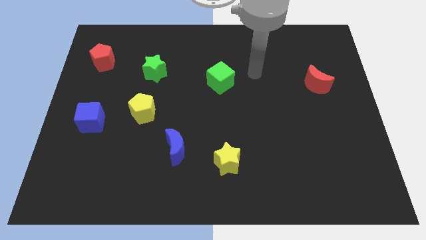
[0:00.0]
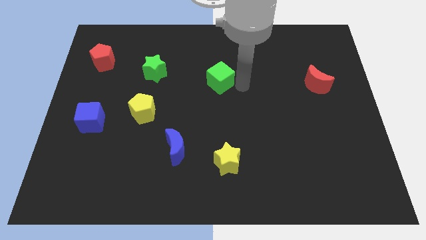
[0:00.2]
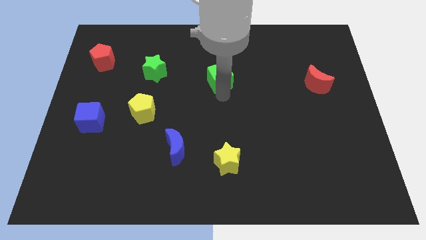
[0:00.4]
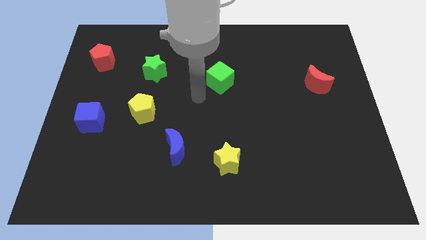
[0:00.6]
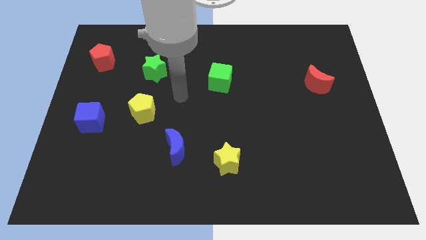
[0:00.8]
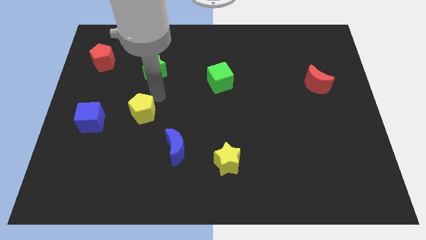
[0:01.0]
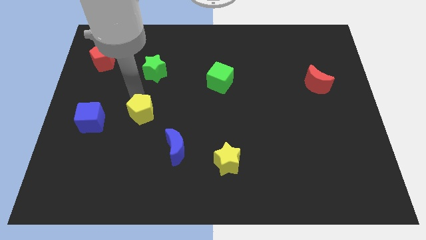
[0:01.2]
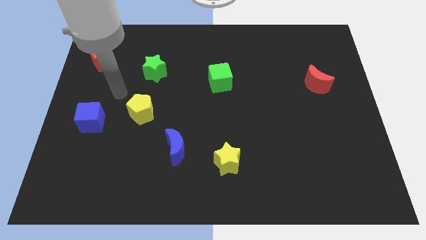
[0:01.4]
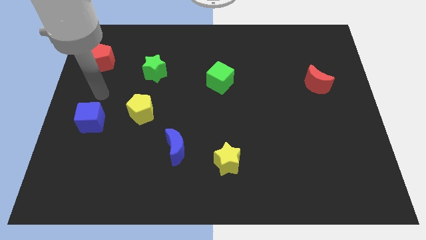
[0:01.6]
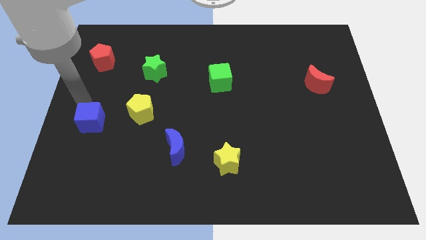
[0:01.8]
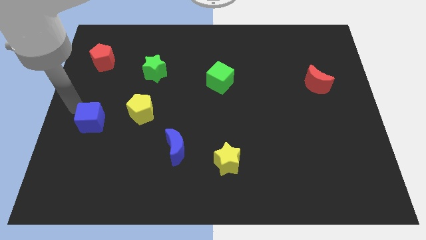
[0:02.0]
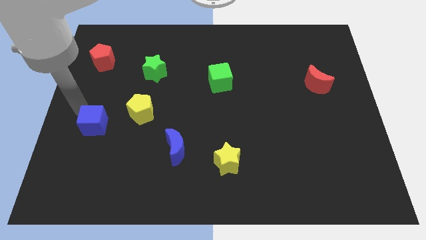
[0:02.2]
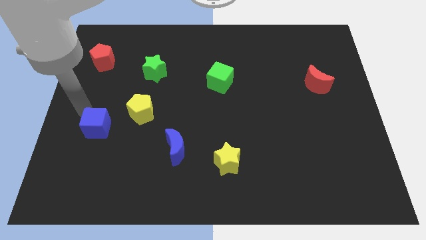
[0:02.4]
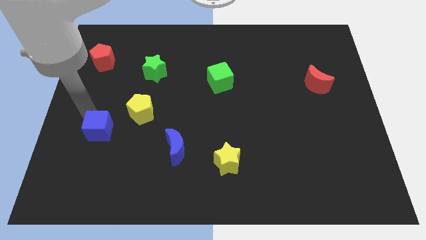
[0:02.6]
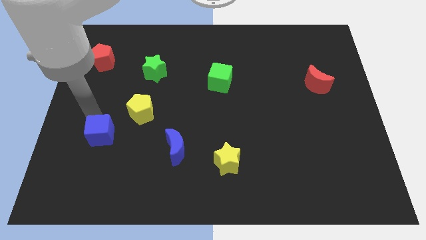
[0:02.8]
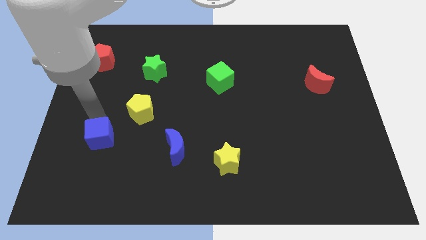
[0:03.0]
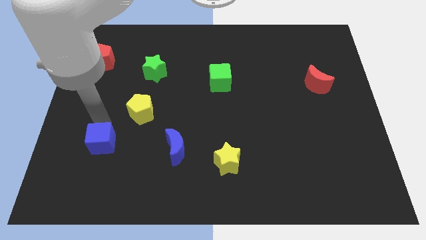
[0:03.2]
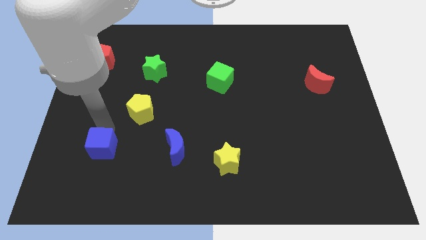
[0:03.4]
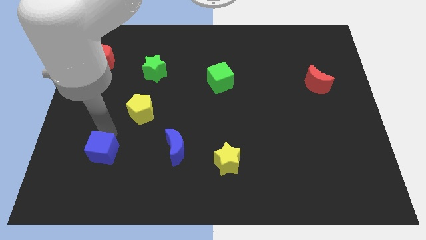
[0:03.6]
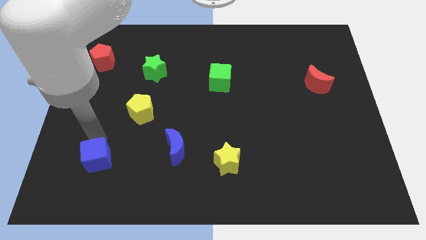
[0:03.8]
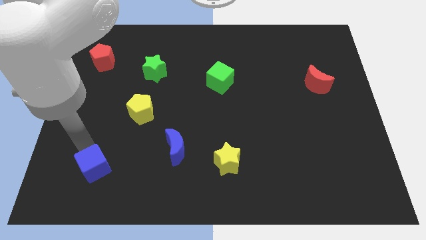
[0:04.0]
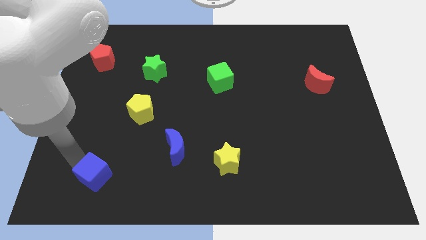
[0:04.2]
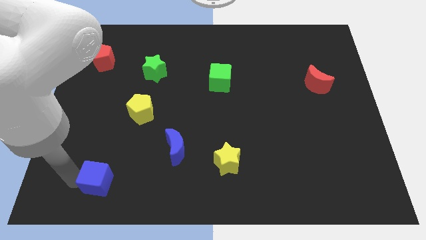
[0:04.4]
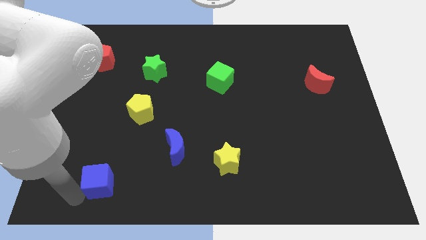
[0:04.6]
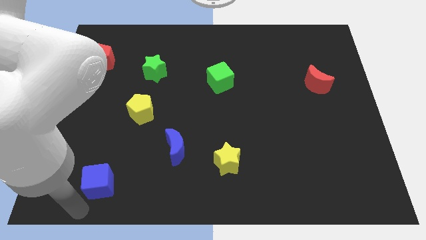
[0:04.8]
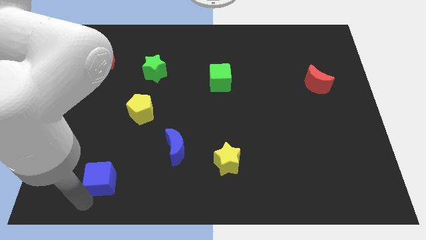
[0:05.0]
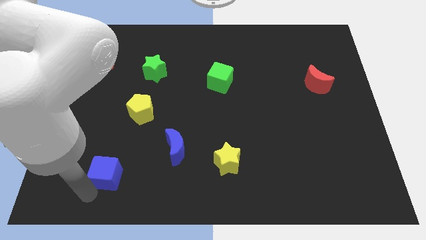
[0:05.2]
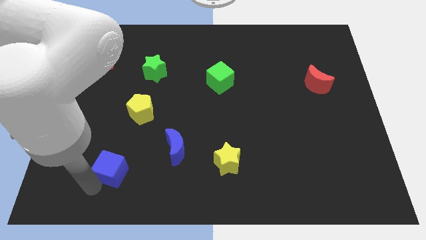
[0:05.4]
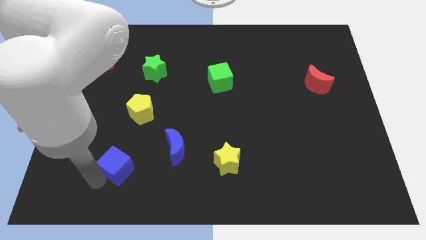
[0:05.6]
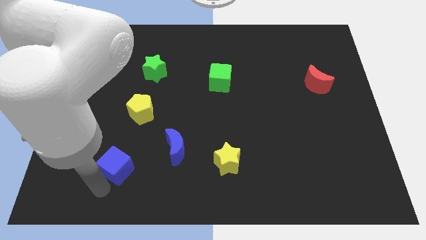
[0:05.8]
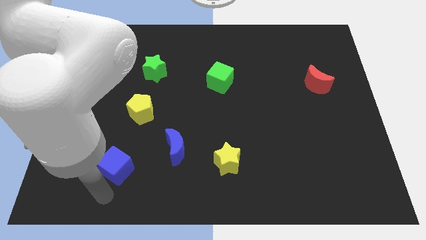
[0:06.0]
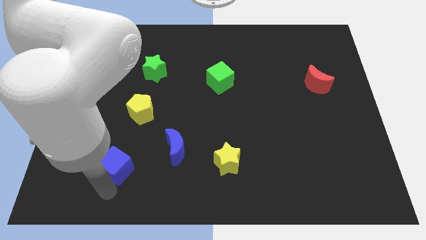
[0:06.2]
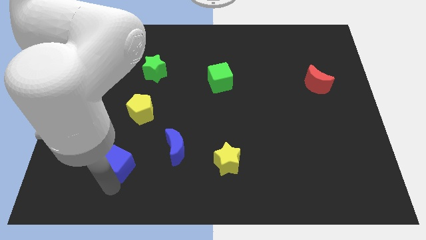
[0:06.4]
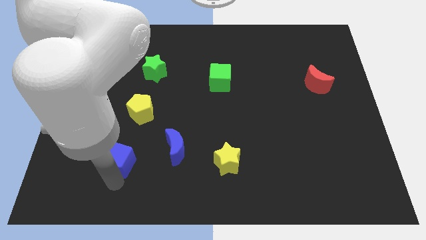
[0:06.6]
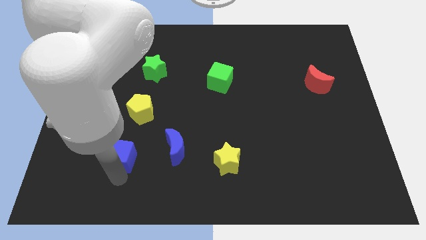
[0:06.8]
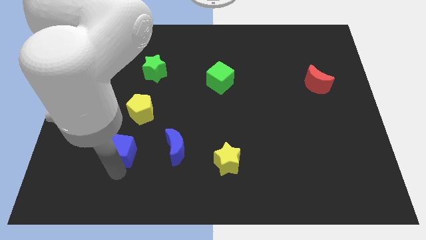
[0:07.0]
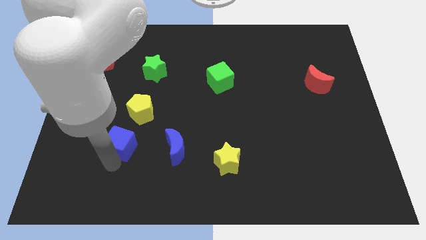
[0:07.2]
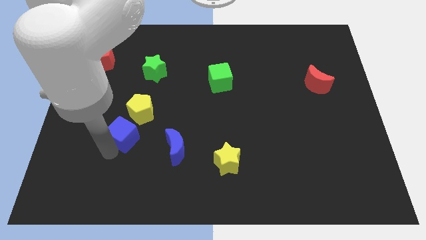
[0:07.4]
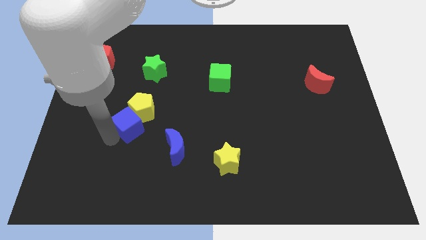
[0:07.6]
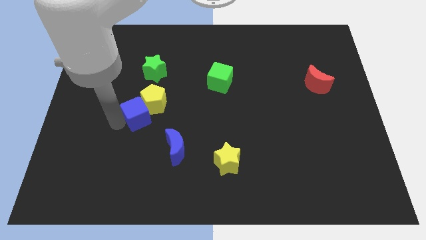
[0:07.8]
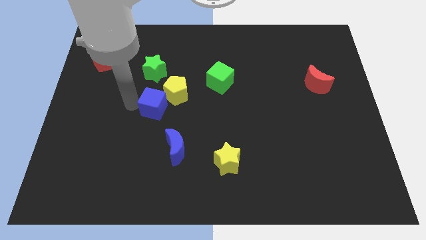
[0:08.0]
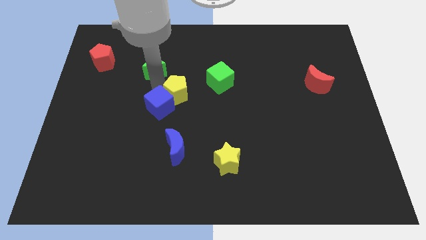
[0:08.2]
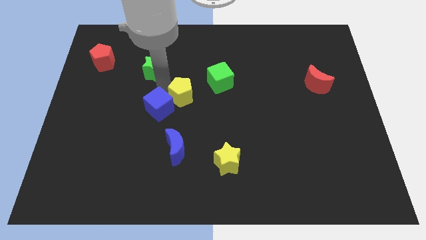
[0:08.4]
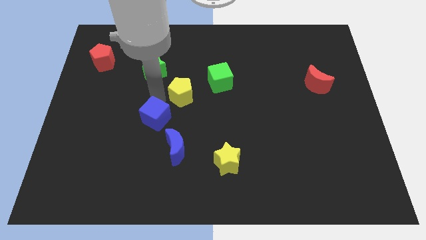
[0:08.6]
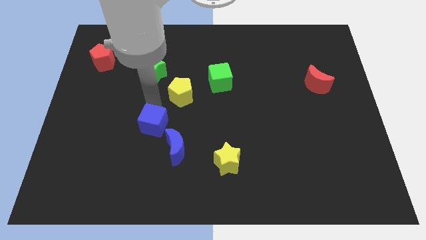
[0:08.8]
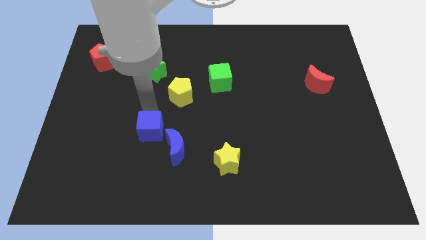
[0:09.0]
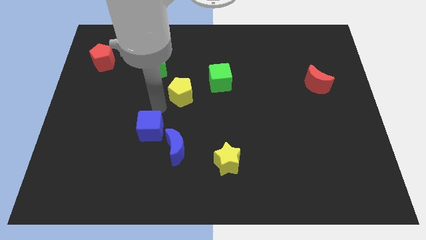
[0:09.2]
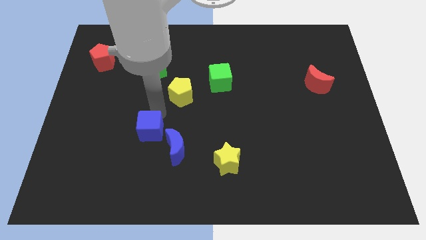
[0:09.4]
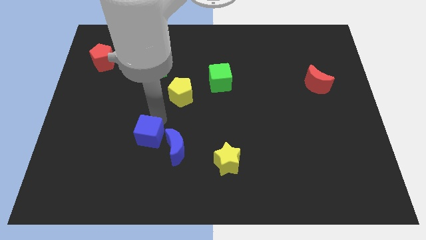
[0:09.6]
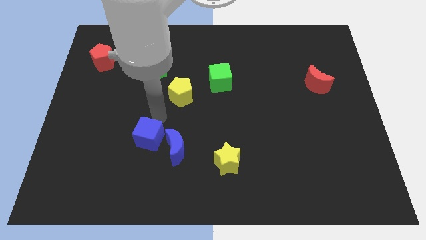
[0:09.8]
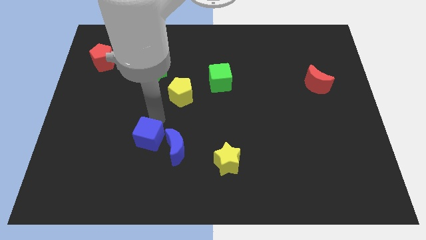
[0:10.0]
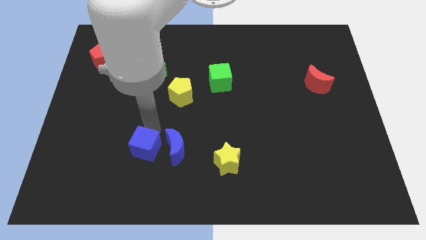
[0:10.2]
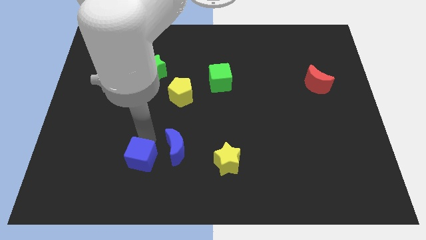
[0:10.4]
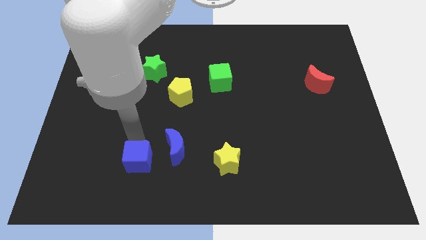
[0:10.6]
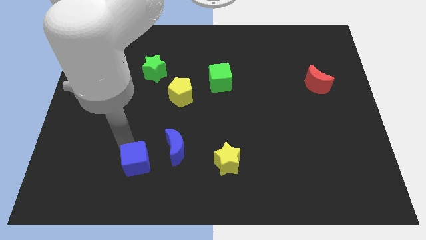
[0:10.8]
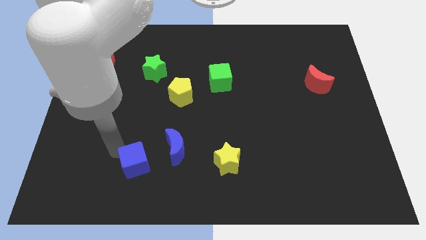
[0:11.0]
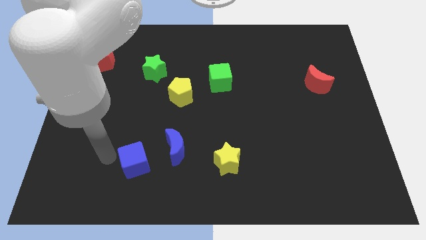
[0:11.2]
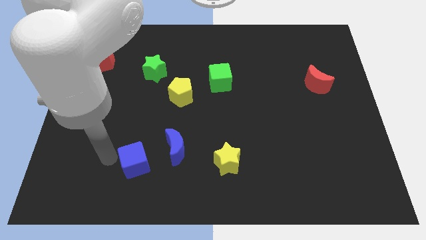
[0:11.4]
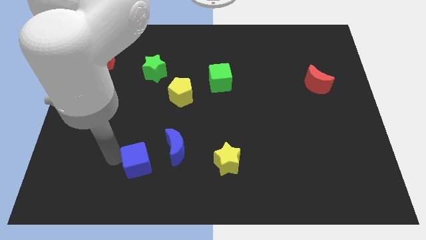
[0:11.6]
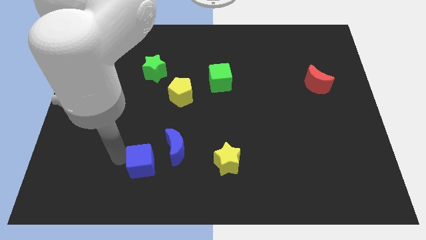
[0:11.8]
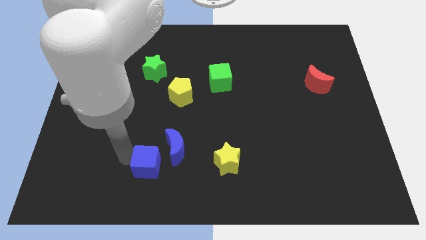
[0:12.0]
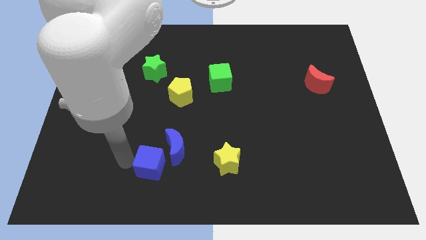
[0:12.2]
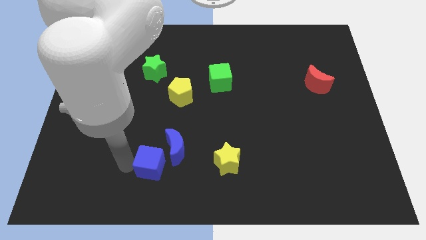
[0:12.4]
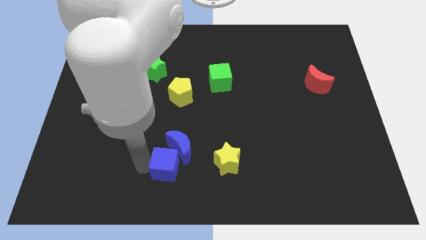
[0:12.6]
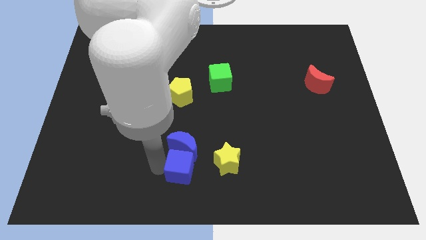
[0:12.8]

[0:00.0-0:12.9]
move the blue cube diagonally down and to the right of the blue moon
